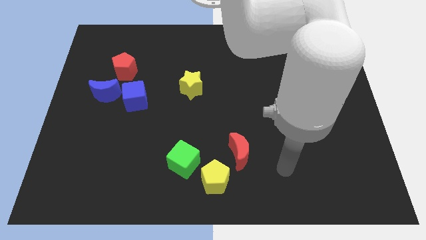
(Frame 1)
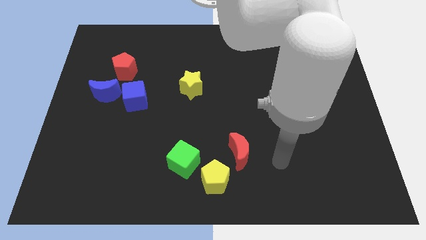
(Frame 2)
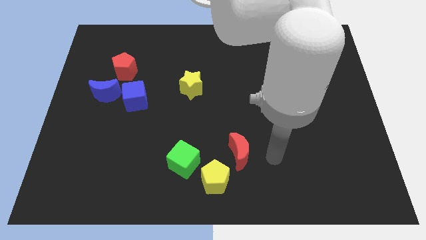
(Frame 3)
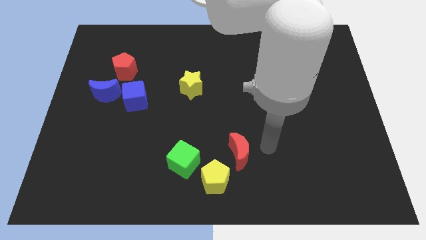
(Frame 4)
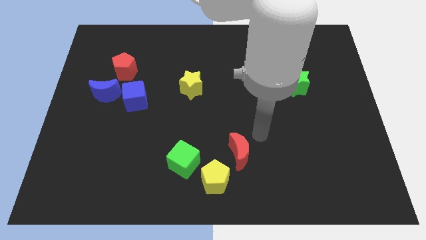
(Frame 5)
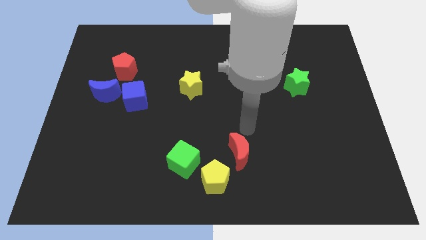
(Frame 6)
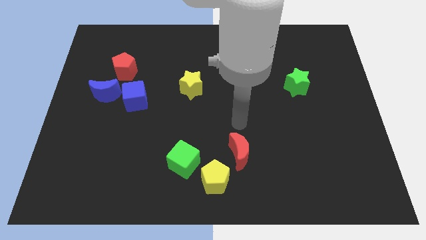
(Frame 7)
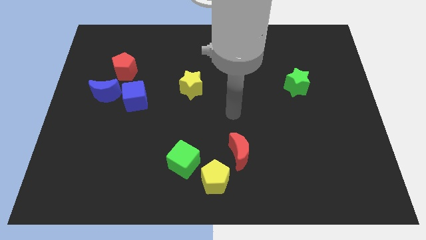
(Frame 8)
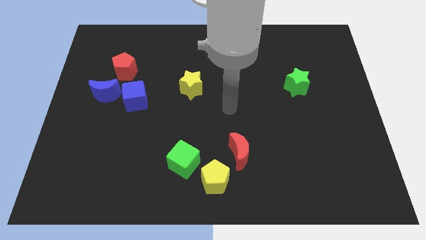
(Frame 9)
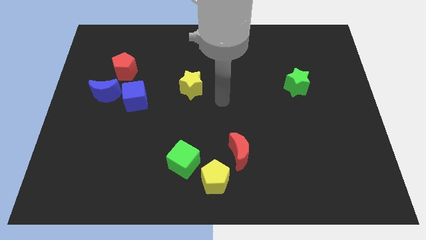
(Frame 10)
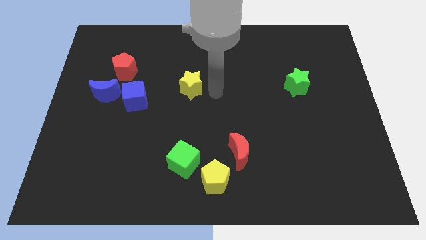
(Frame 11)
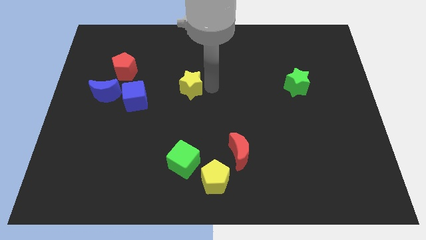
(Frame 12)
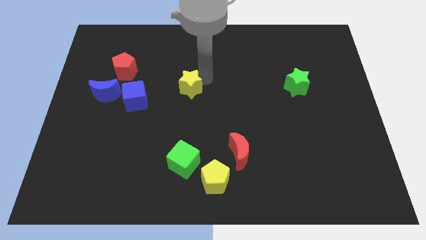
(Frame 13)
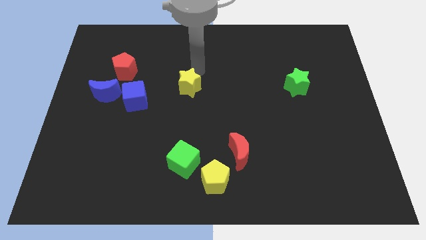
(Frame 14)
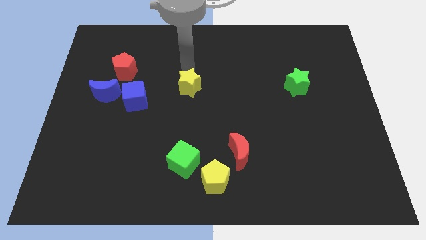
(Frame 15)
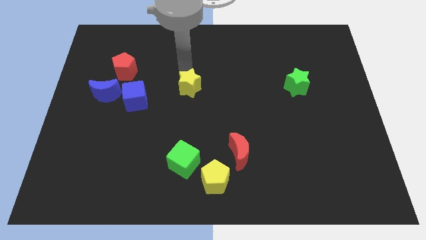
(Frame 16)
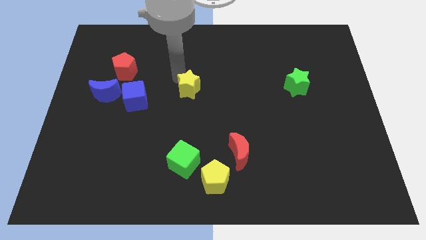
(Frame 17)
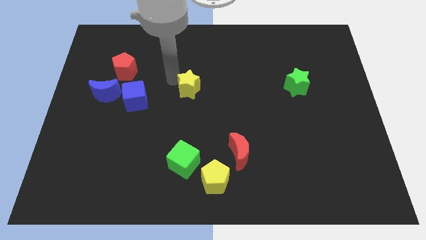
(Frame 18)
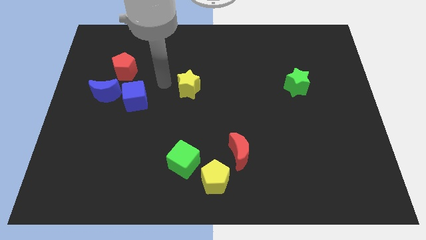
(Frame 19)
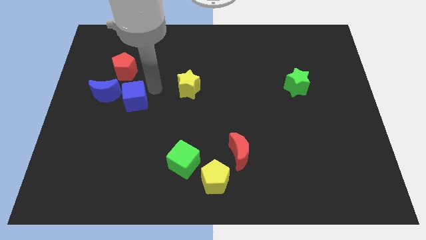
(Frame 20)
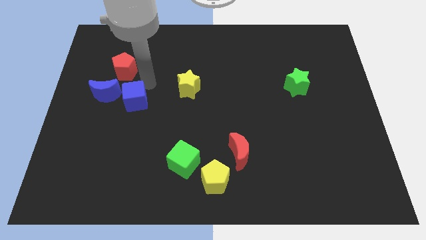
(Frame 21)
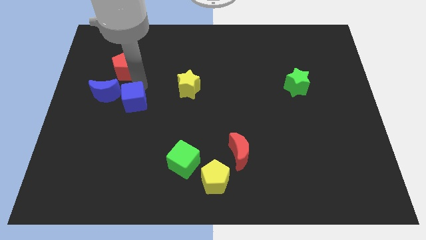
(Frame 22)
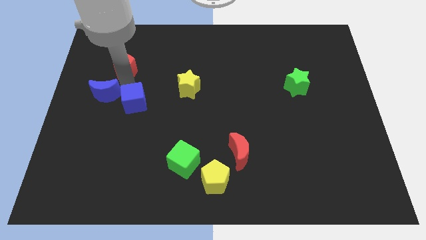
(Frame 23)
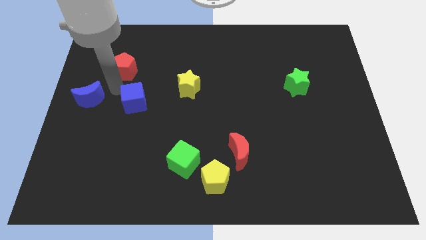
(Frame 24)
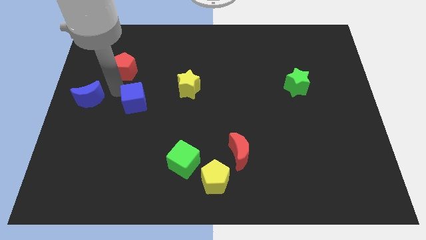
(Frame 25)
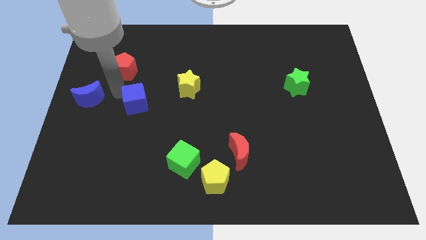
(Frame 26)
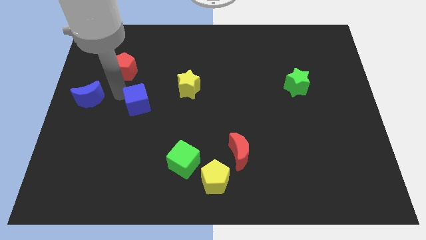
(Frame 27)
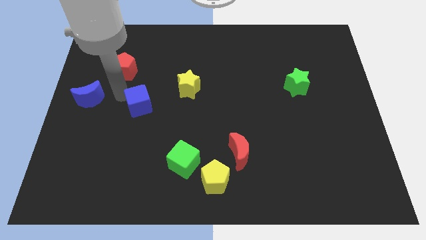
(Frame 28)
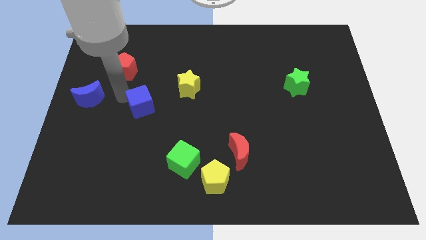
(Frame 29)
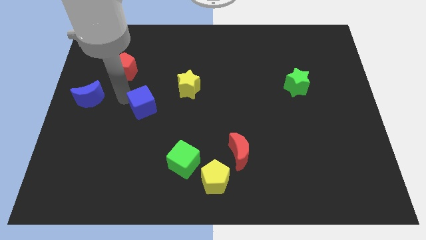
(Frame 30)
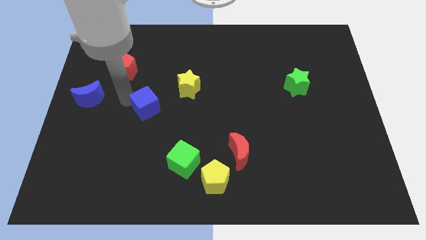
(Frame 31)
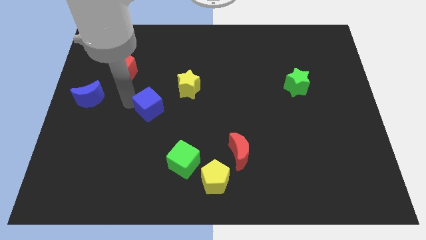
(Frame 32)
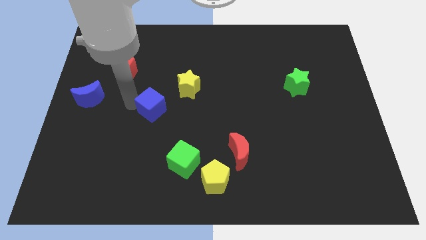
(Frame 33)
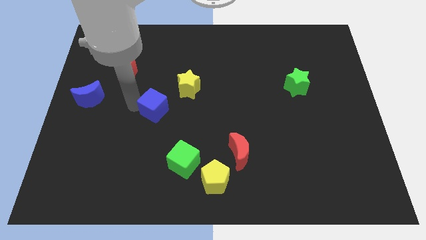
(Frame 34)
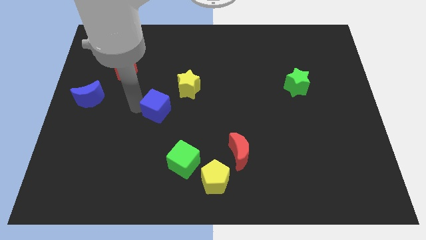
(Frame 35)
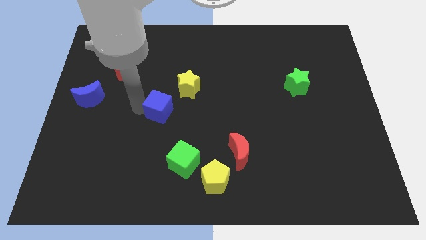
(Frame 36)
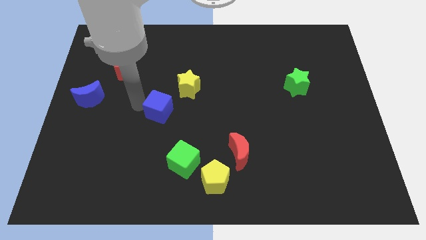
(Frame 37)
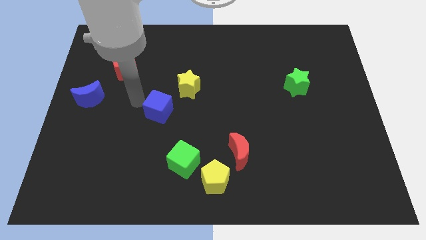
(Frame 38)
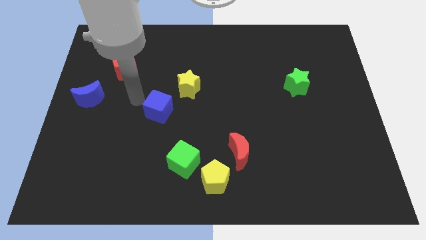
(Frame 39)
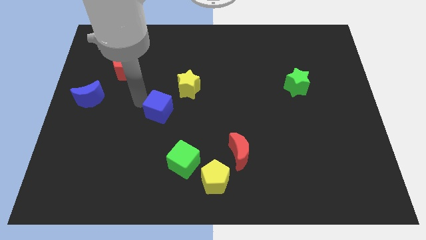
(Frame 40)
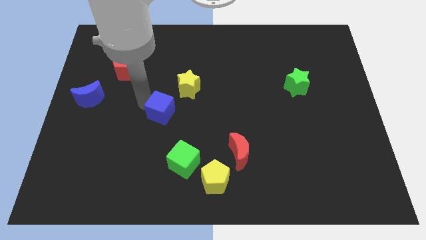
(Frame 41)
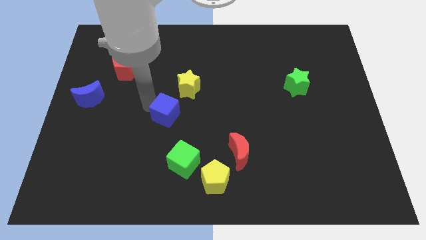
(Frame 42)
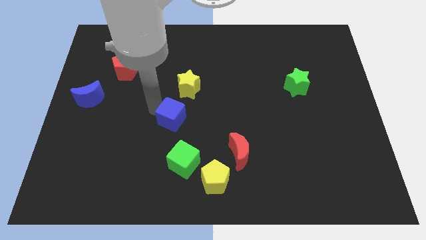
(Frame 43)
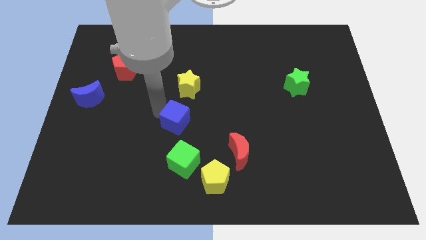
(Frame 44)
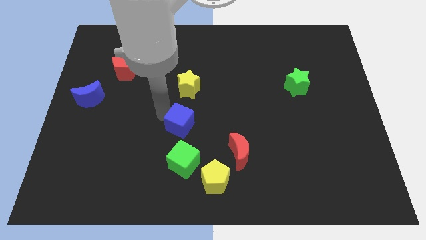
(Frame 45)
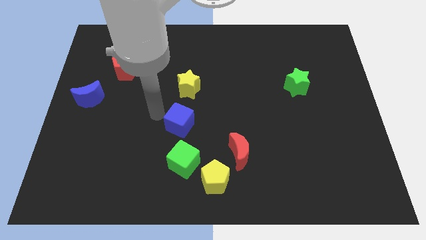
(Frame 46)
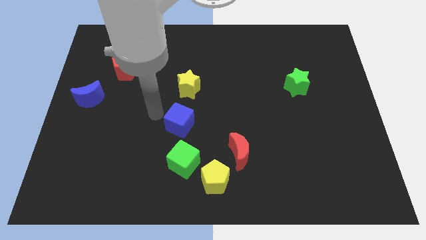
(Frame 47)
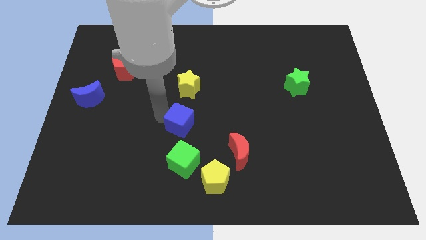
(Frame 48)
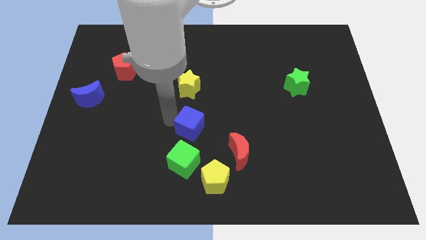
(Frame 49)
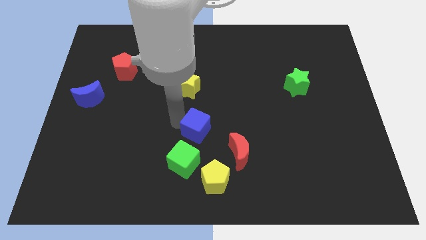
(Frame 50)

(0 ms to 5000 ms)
slide the blue cube to the top side of the yellow pentagon

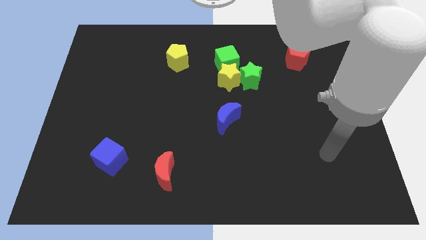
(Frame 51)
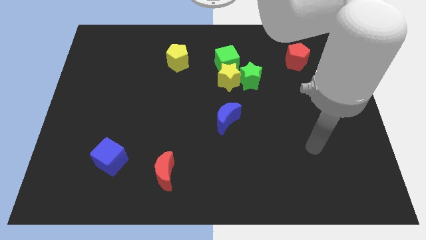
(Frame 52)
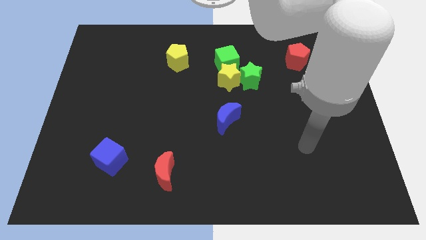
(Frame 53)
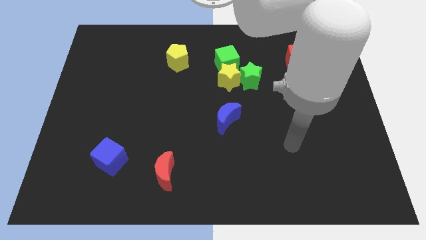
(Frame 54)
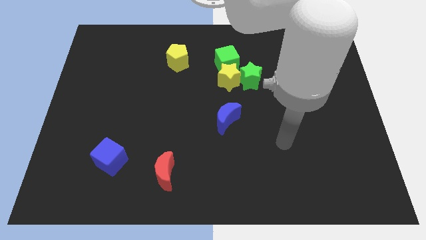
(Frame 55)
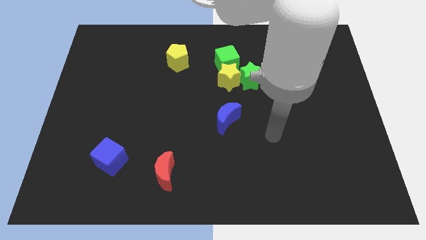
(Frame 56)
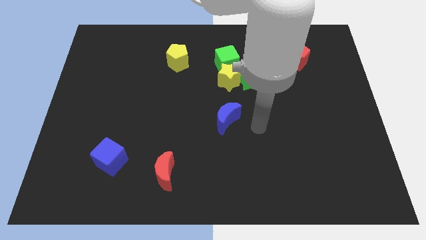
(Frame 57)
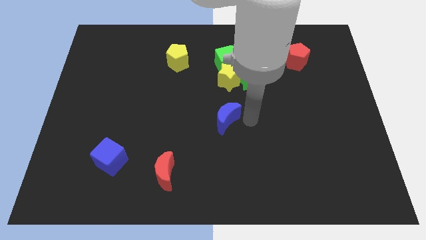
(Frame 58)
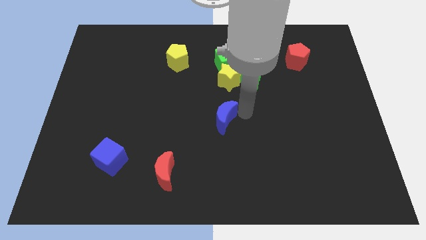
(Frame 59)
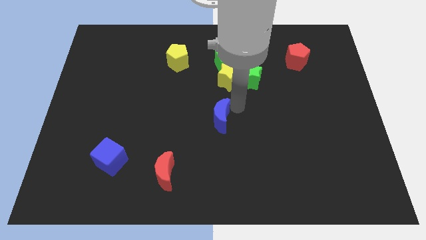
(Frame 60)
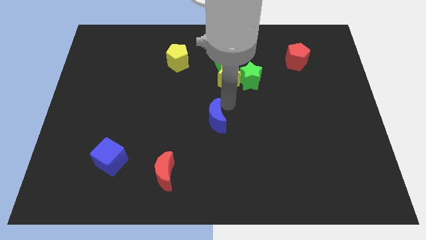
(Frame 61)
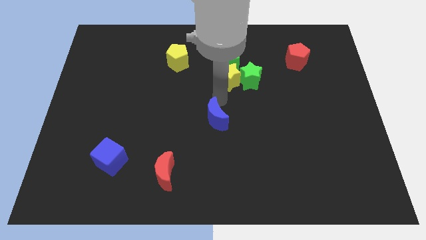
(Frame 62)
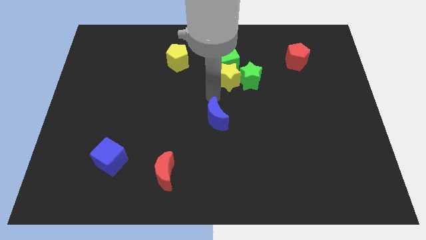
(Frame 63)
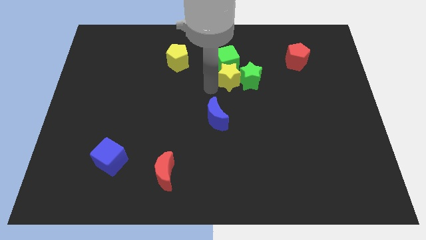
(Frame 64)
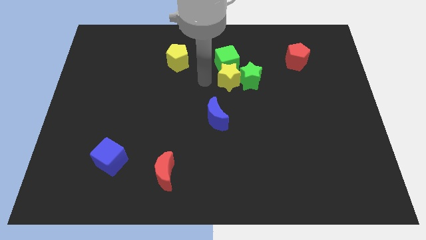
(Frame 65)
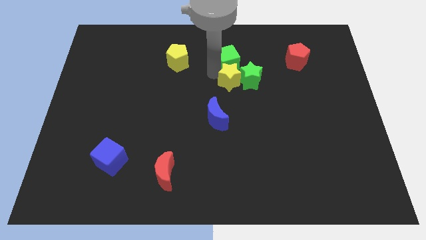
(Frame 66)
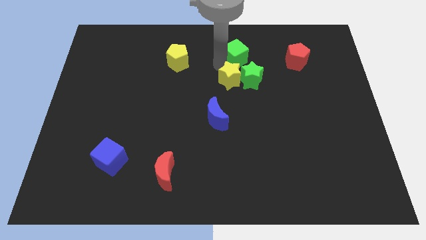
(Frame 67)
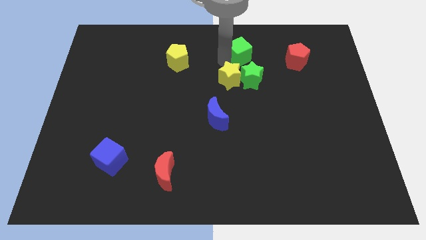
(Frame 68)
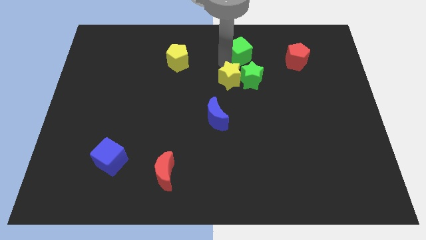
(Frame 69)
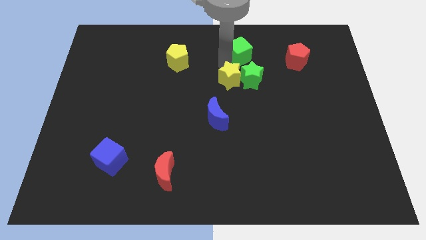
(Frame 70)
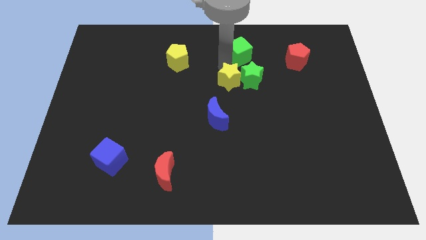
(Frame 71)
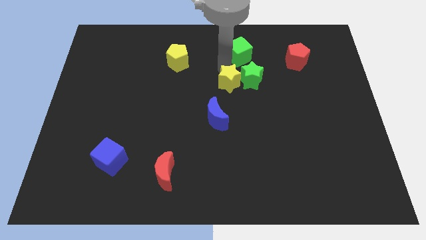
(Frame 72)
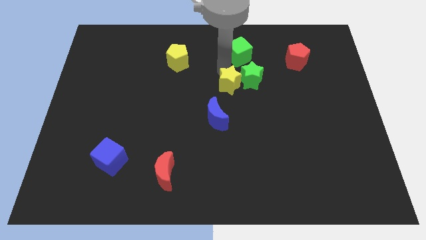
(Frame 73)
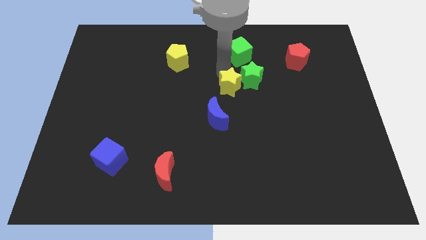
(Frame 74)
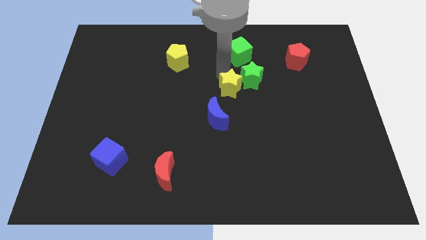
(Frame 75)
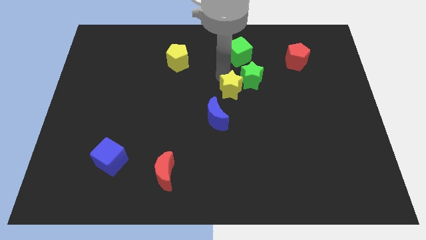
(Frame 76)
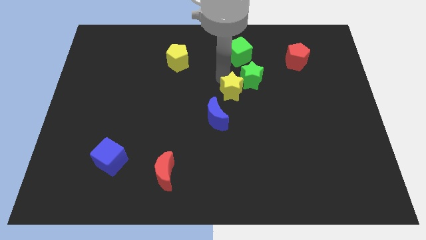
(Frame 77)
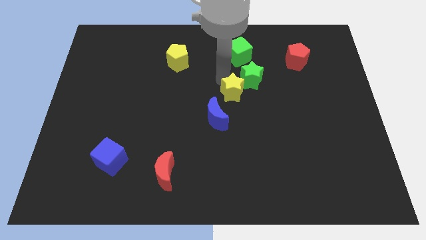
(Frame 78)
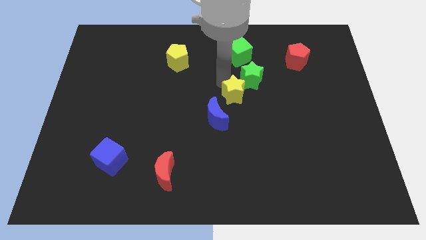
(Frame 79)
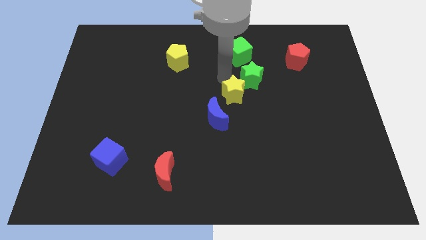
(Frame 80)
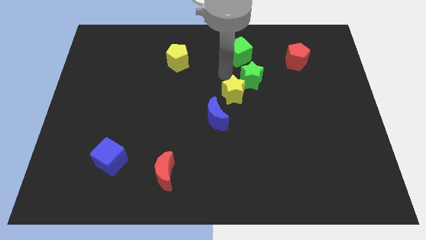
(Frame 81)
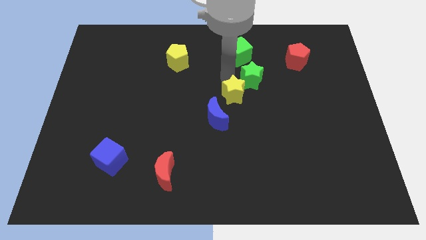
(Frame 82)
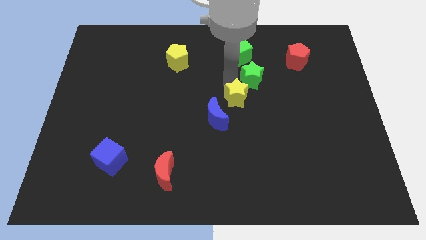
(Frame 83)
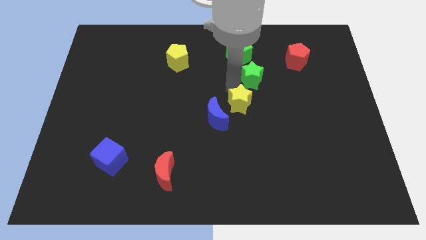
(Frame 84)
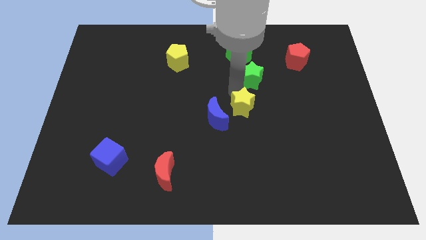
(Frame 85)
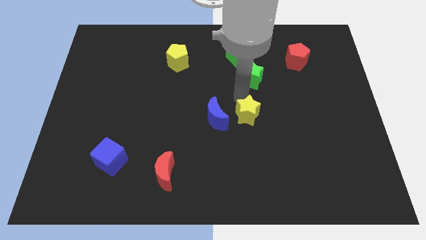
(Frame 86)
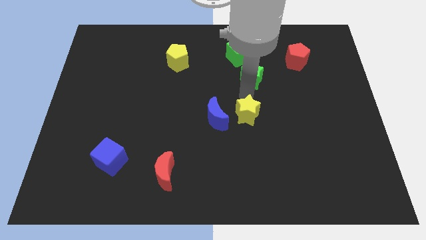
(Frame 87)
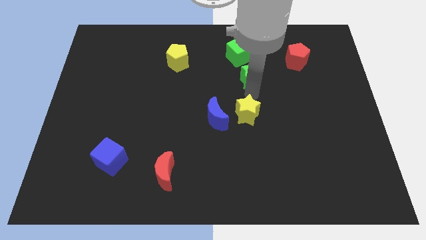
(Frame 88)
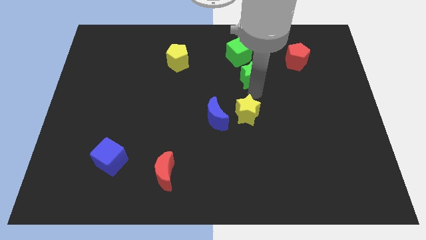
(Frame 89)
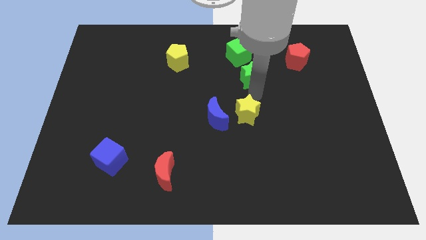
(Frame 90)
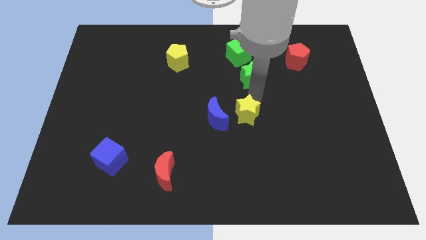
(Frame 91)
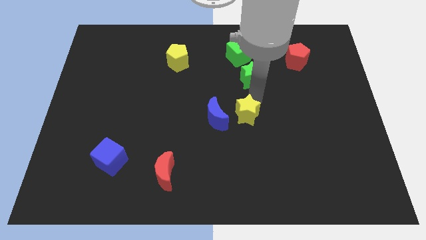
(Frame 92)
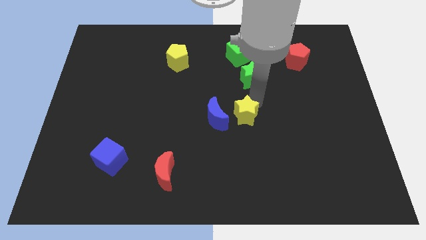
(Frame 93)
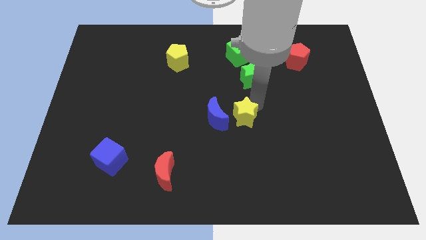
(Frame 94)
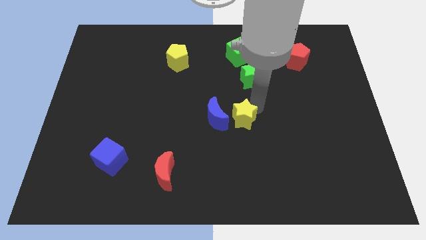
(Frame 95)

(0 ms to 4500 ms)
move the yellow star diagonally down and to the right of the blue moon
